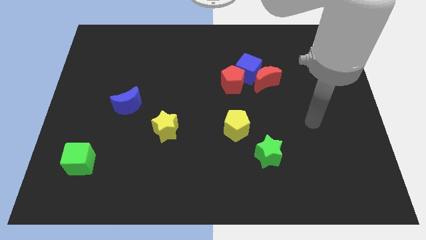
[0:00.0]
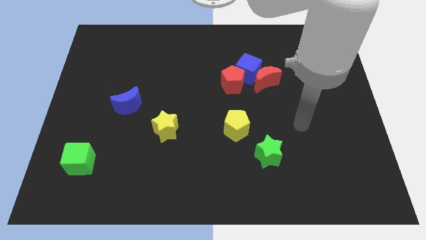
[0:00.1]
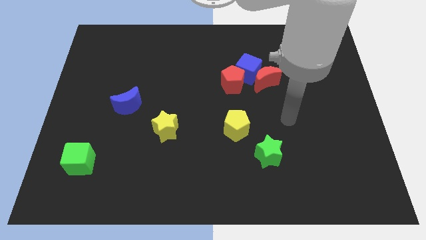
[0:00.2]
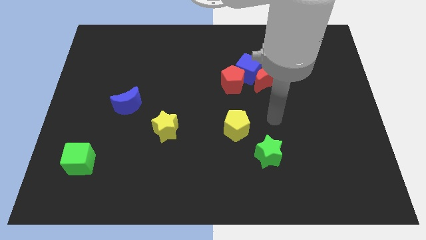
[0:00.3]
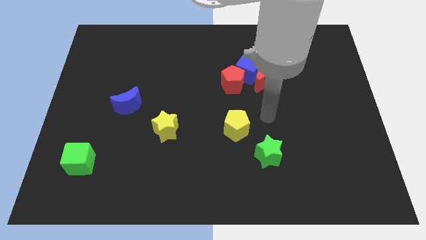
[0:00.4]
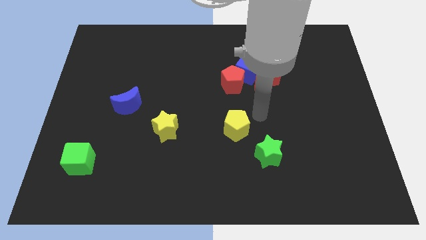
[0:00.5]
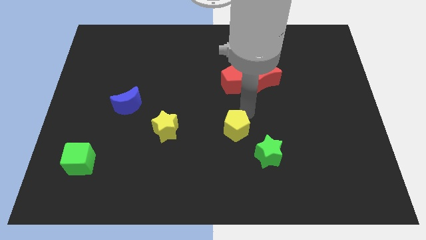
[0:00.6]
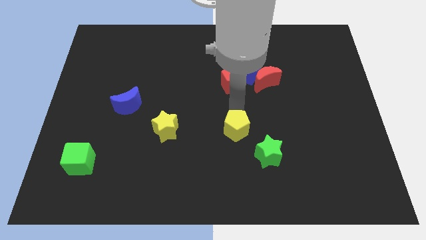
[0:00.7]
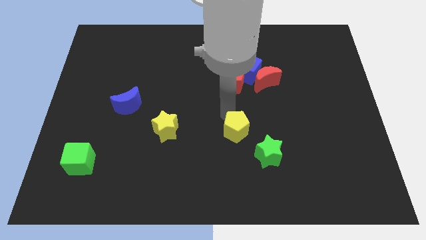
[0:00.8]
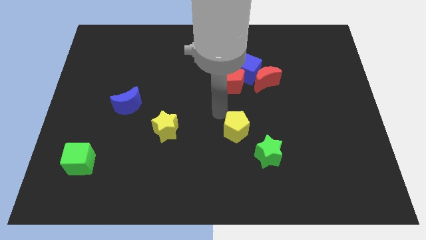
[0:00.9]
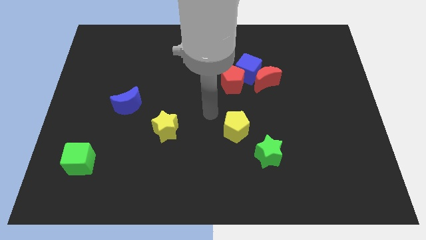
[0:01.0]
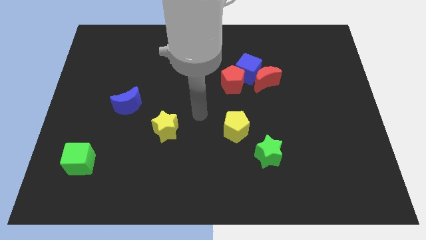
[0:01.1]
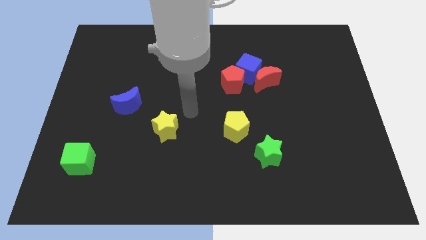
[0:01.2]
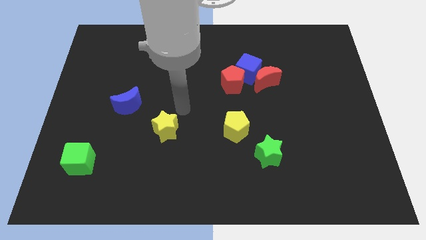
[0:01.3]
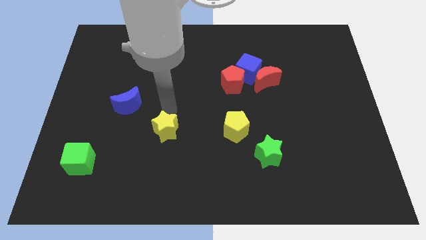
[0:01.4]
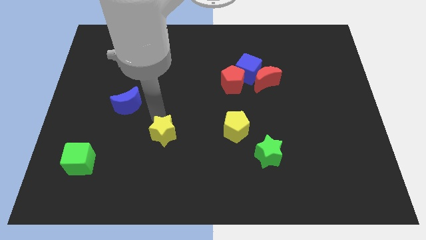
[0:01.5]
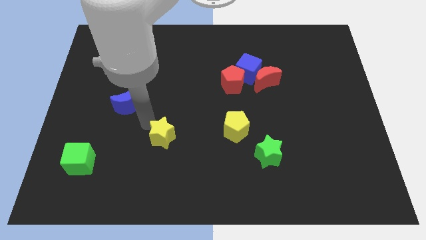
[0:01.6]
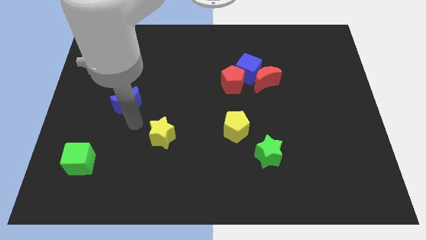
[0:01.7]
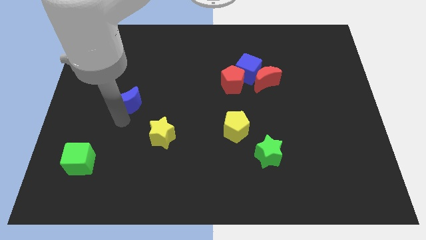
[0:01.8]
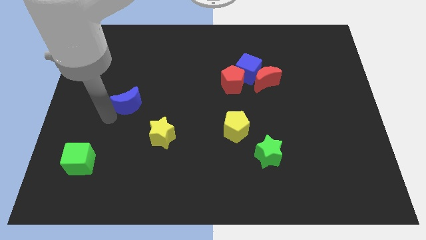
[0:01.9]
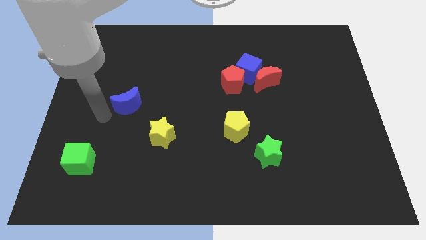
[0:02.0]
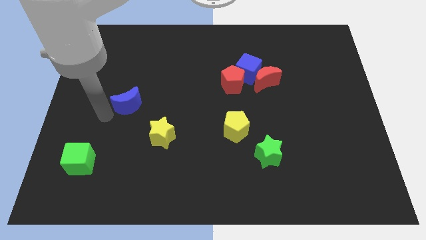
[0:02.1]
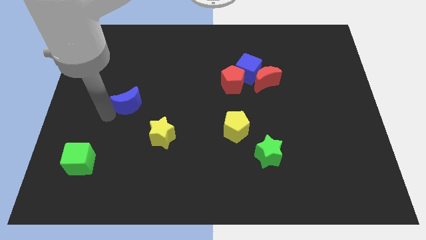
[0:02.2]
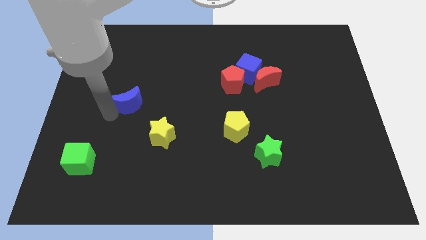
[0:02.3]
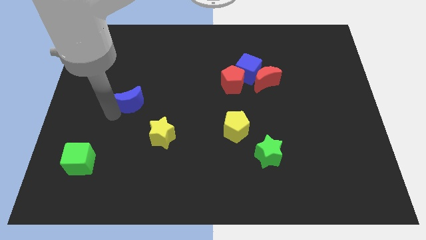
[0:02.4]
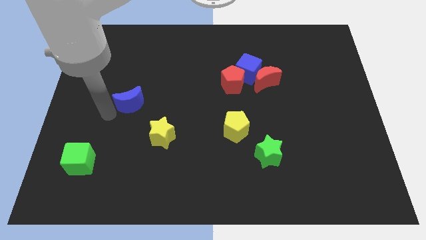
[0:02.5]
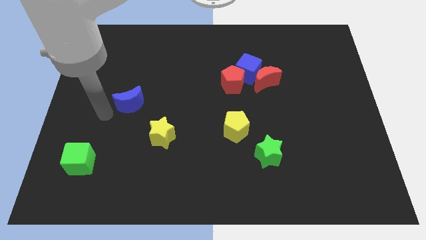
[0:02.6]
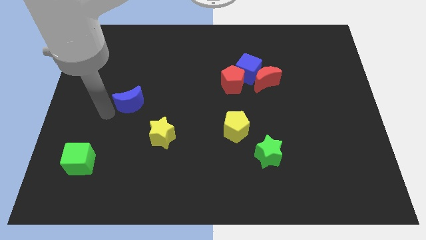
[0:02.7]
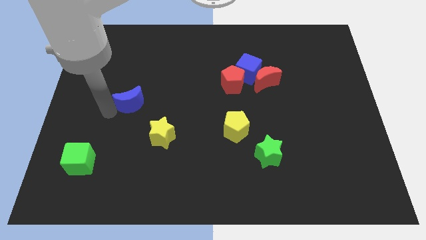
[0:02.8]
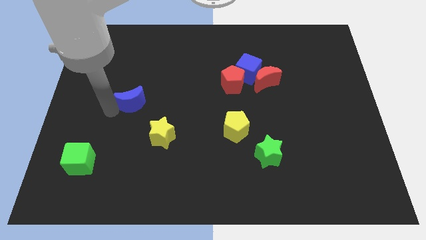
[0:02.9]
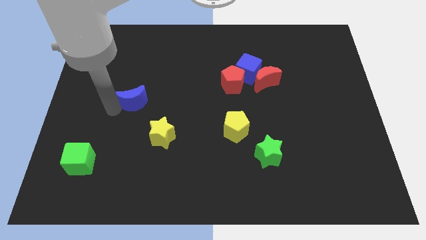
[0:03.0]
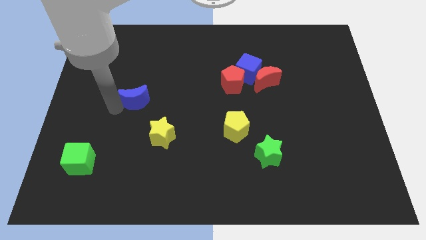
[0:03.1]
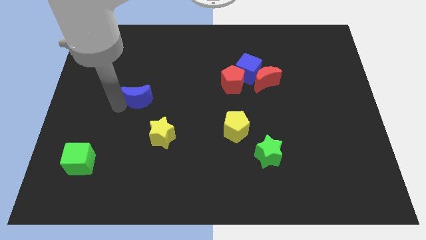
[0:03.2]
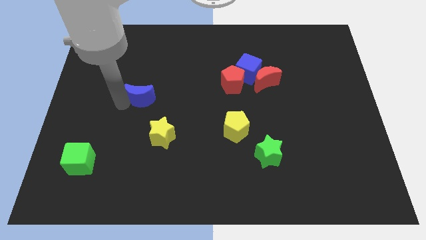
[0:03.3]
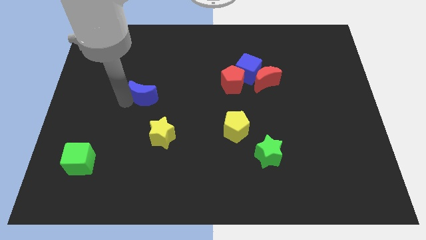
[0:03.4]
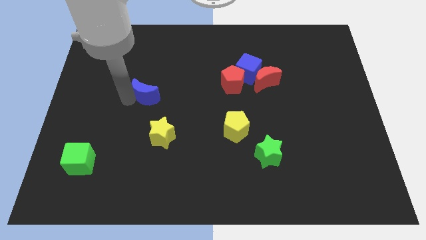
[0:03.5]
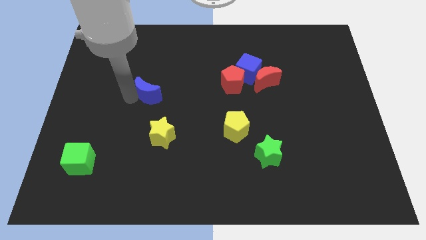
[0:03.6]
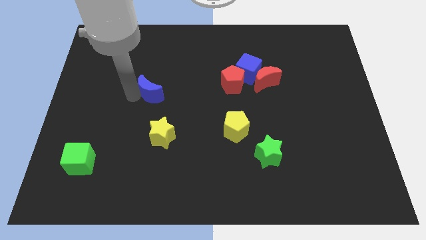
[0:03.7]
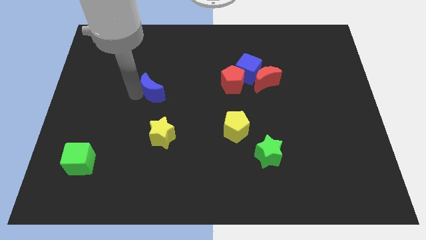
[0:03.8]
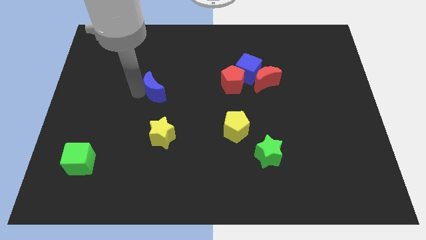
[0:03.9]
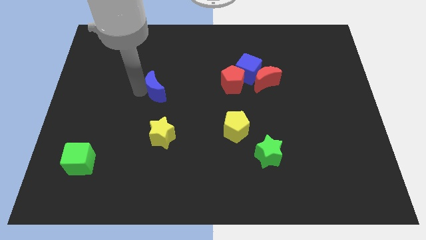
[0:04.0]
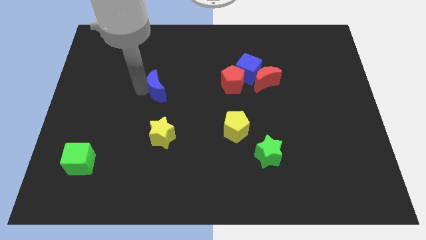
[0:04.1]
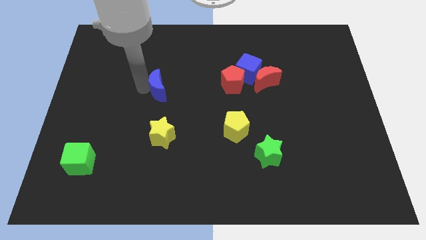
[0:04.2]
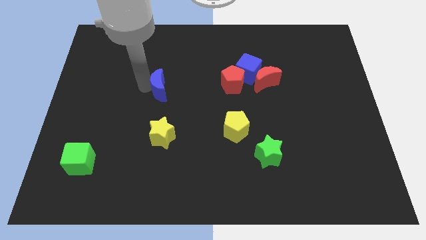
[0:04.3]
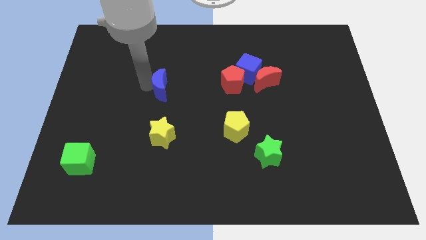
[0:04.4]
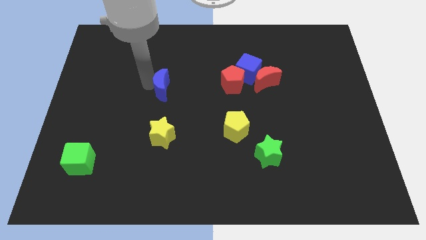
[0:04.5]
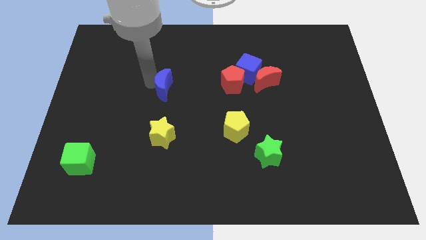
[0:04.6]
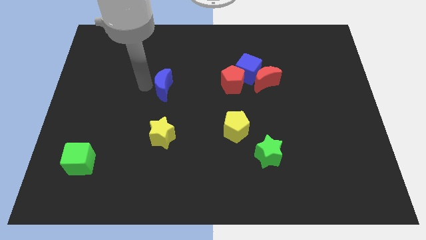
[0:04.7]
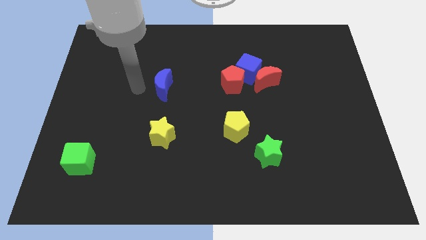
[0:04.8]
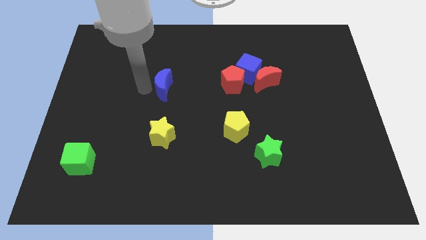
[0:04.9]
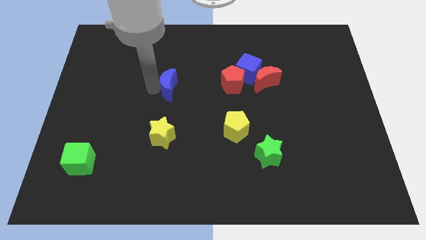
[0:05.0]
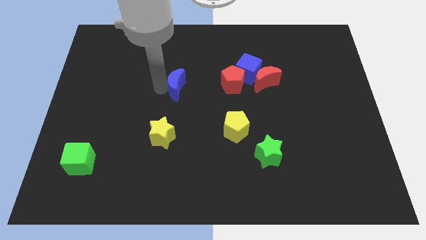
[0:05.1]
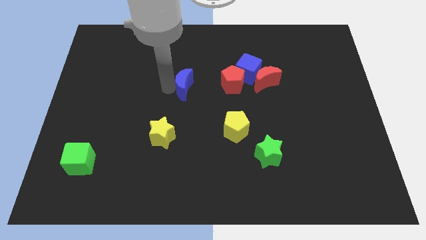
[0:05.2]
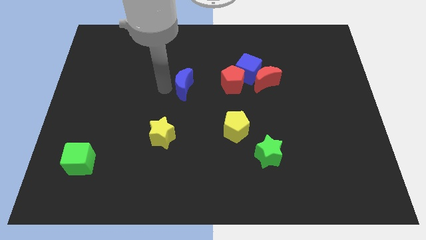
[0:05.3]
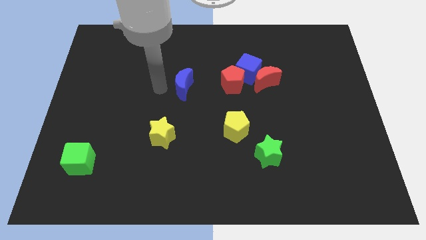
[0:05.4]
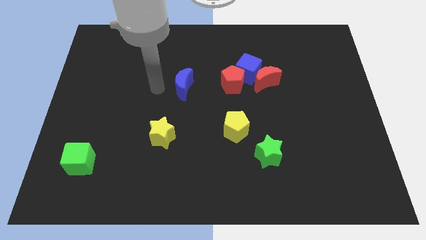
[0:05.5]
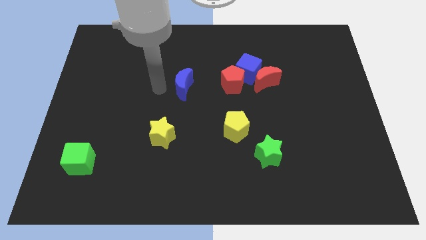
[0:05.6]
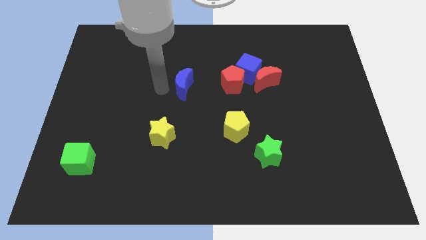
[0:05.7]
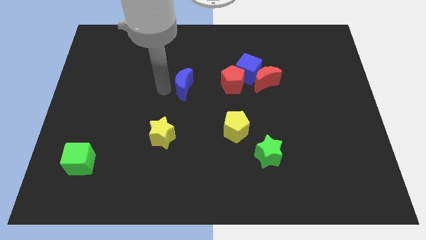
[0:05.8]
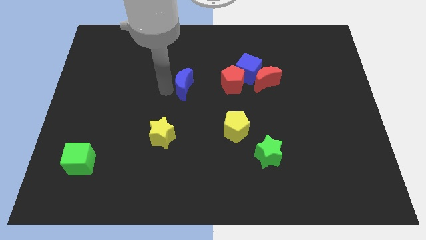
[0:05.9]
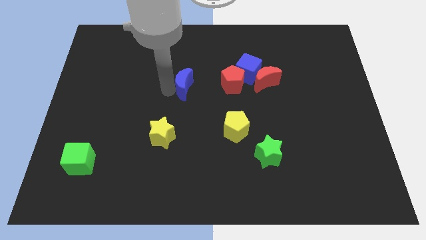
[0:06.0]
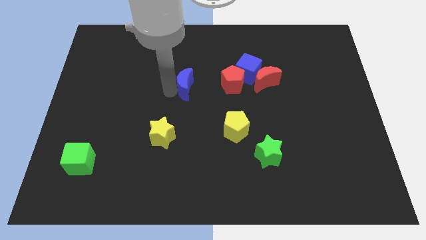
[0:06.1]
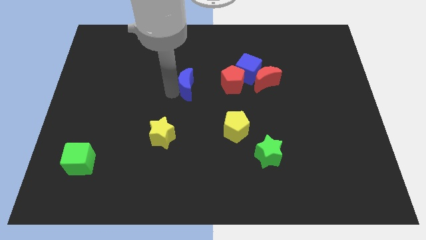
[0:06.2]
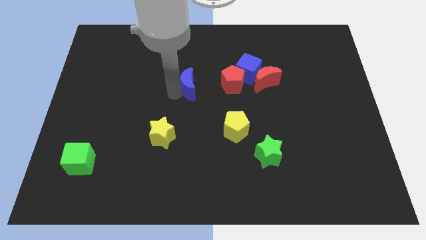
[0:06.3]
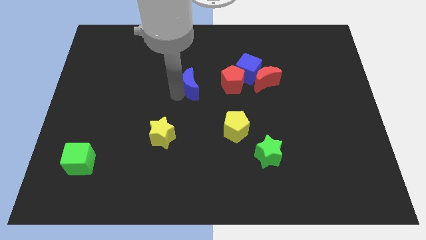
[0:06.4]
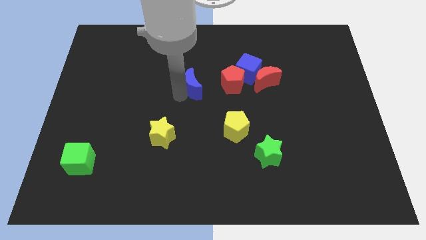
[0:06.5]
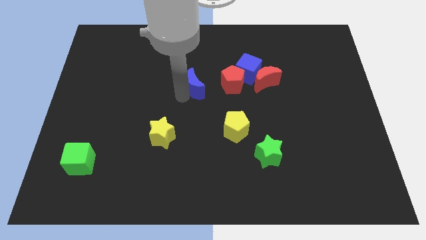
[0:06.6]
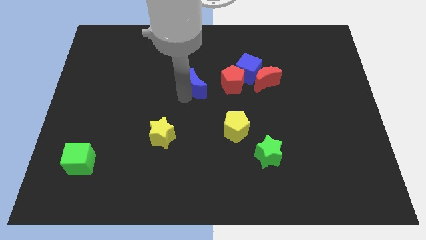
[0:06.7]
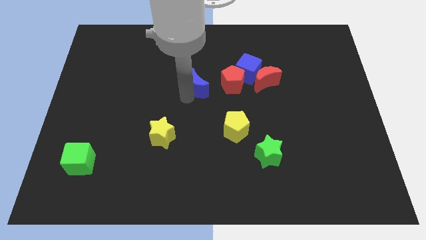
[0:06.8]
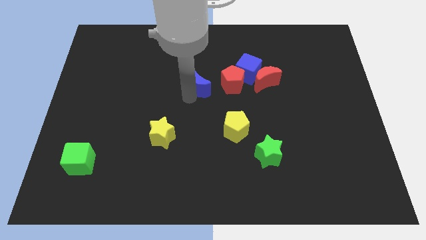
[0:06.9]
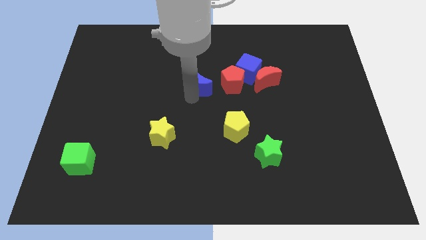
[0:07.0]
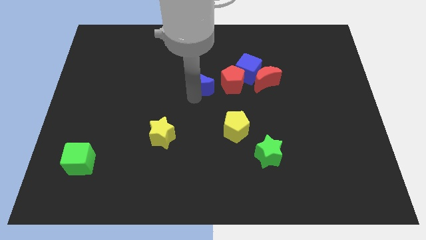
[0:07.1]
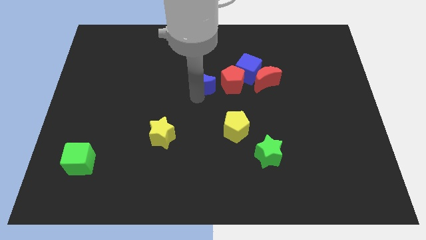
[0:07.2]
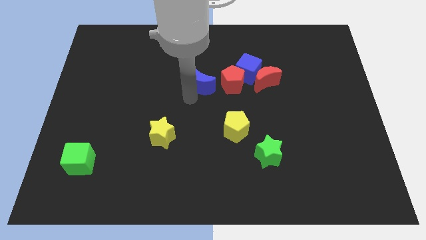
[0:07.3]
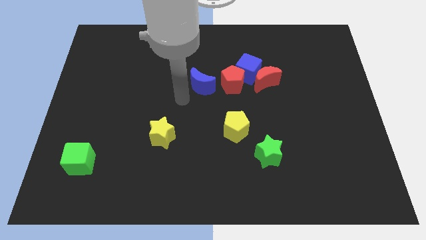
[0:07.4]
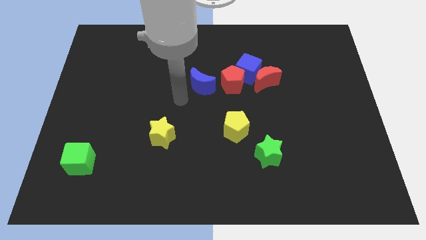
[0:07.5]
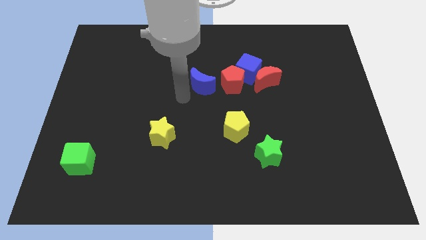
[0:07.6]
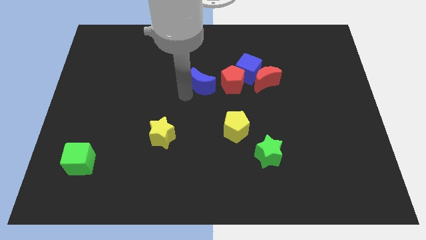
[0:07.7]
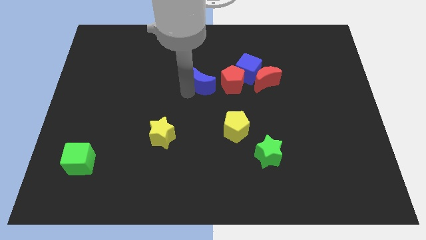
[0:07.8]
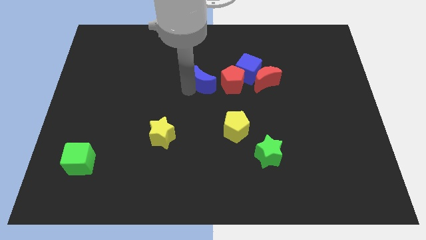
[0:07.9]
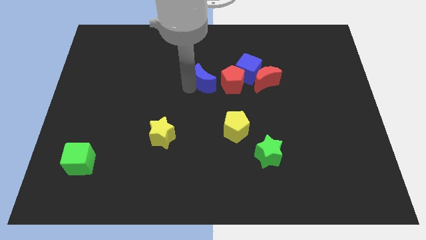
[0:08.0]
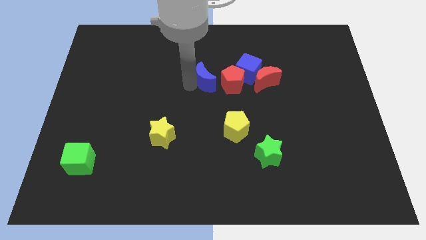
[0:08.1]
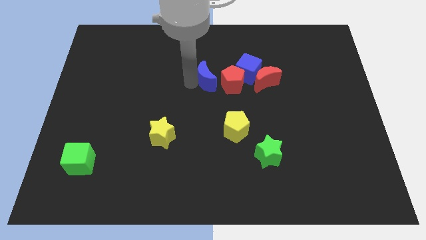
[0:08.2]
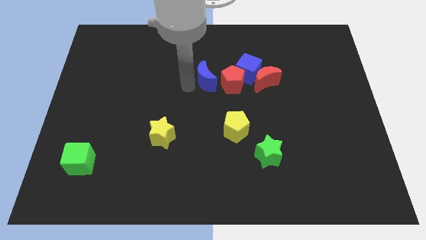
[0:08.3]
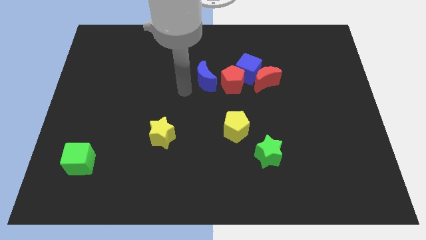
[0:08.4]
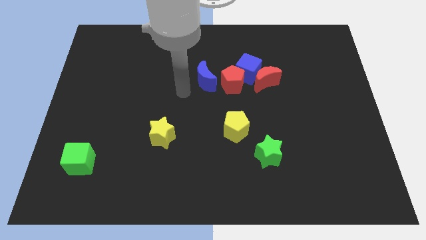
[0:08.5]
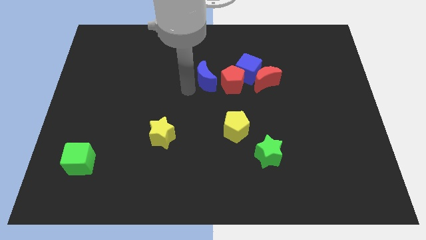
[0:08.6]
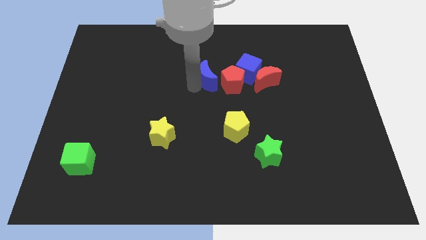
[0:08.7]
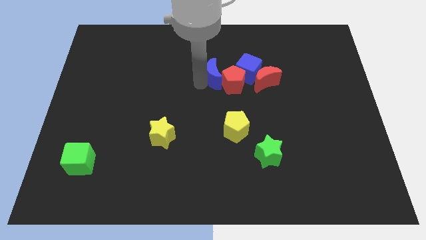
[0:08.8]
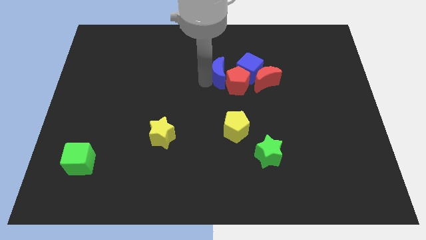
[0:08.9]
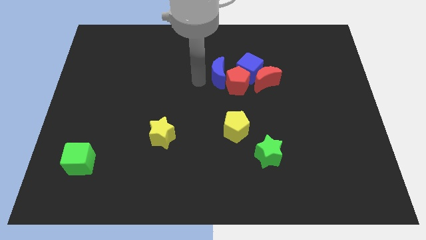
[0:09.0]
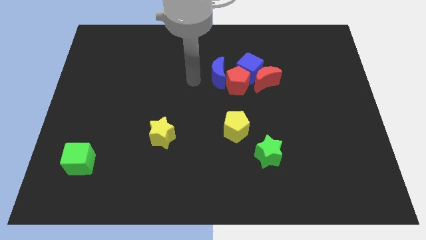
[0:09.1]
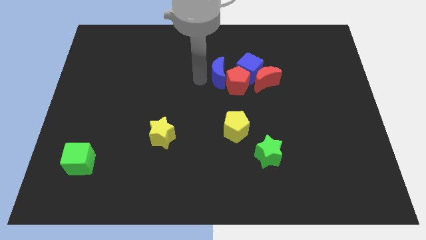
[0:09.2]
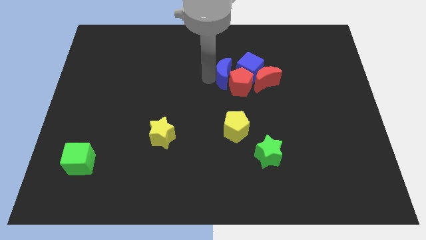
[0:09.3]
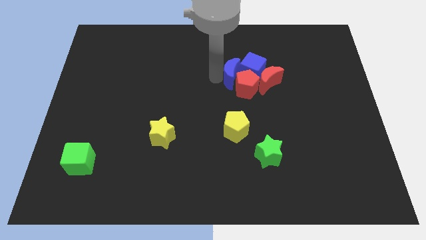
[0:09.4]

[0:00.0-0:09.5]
push the blue moon next to the blue cube
